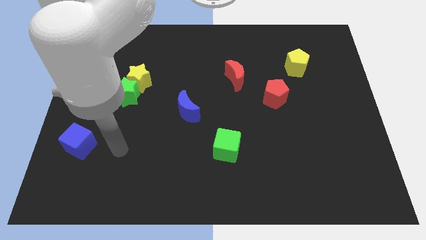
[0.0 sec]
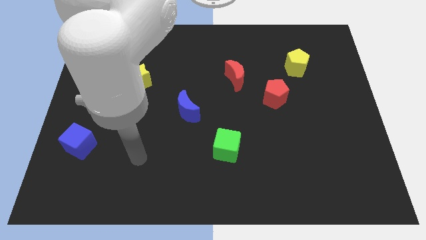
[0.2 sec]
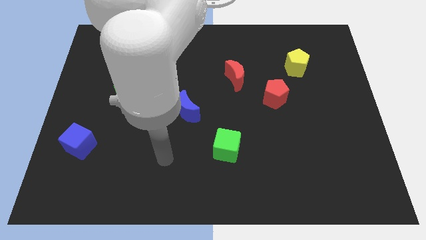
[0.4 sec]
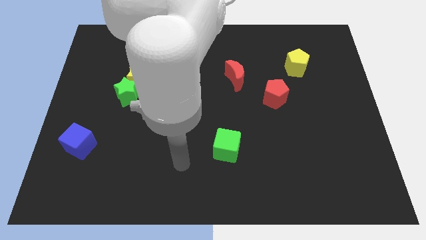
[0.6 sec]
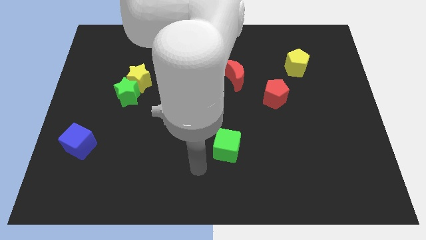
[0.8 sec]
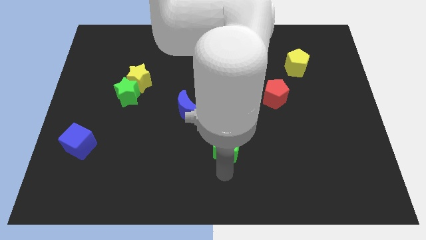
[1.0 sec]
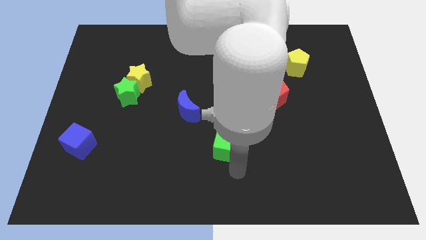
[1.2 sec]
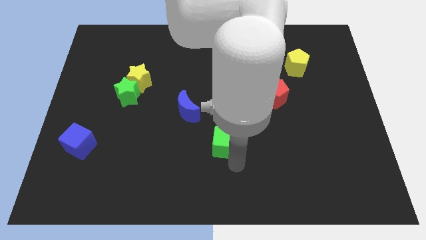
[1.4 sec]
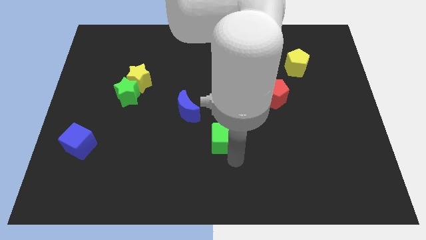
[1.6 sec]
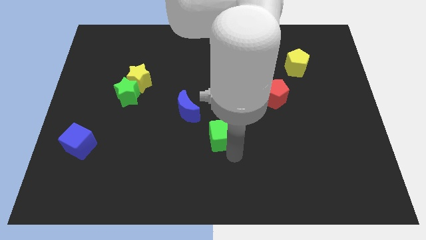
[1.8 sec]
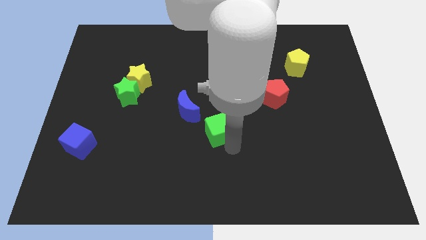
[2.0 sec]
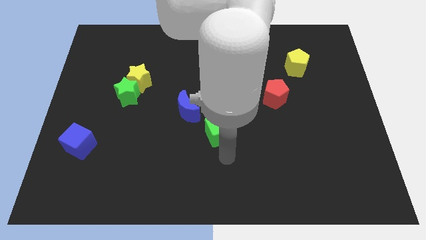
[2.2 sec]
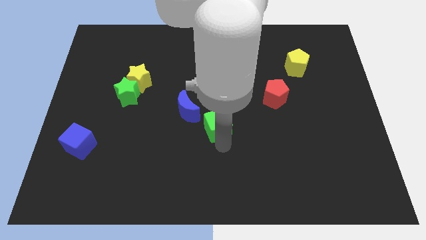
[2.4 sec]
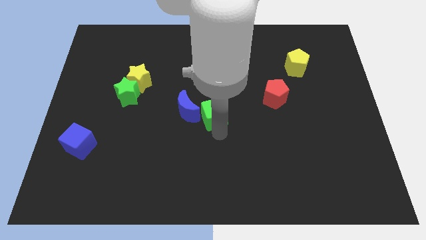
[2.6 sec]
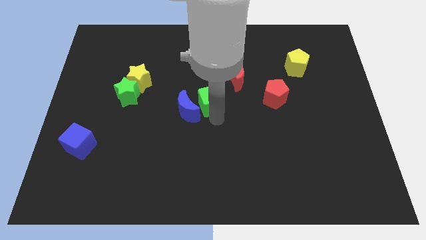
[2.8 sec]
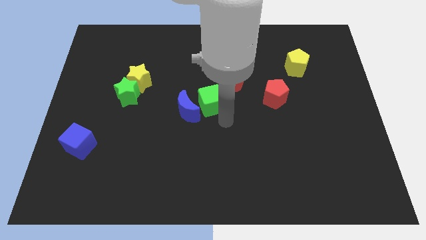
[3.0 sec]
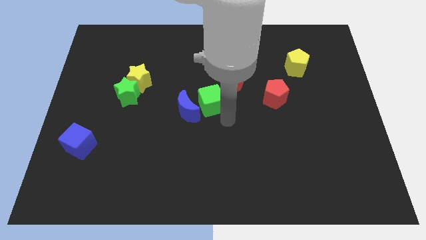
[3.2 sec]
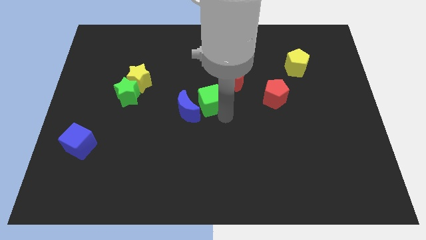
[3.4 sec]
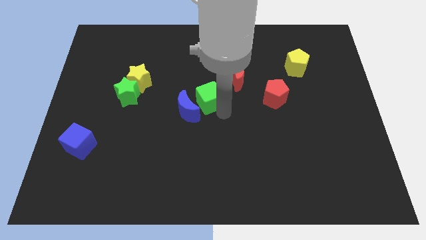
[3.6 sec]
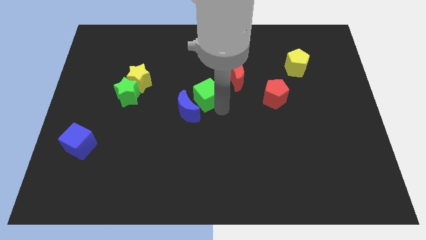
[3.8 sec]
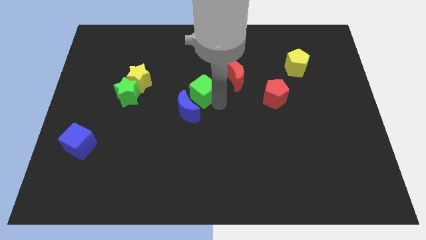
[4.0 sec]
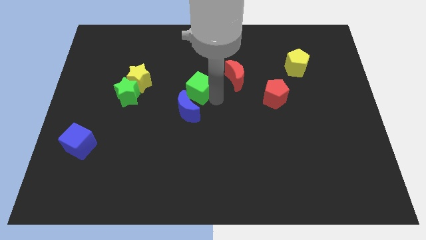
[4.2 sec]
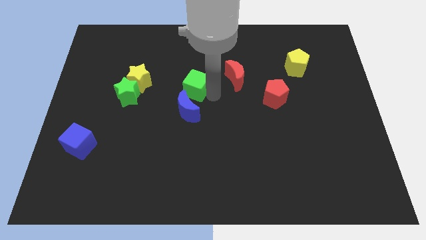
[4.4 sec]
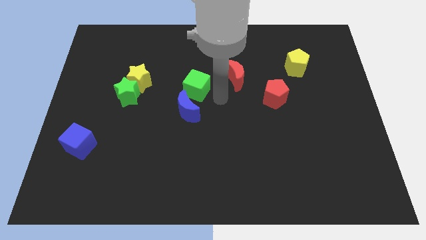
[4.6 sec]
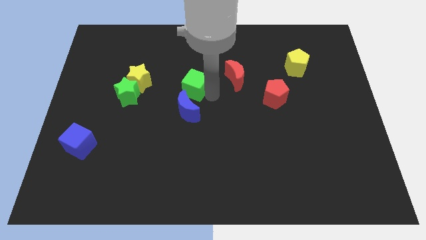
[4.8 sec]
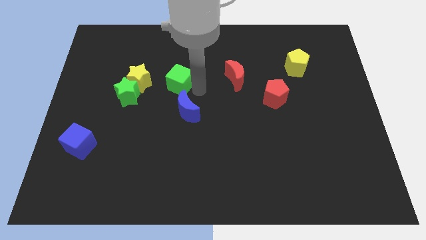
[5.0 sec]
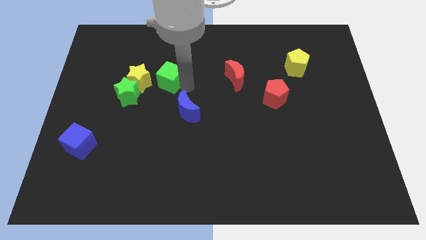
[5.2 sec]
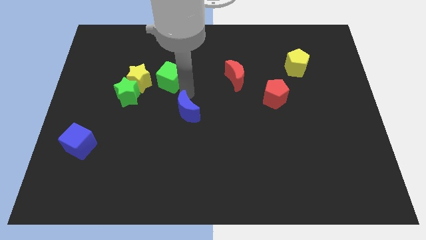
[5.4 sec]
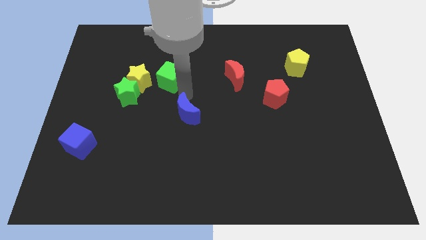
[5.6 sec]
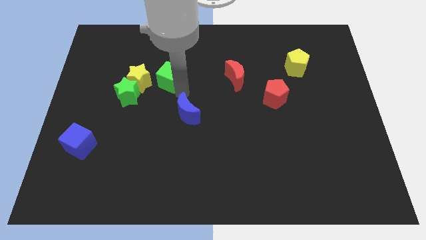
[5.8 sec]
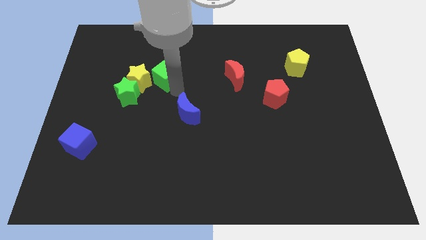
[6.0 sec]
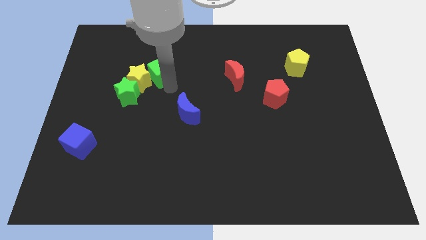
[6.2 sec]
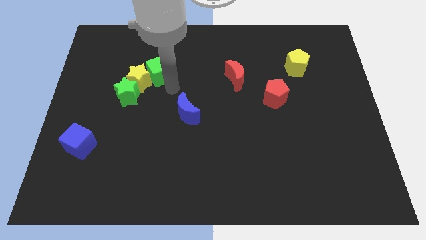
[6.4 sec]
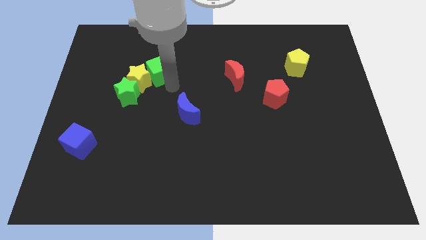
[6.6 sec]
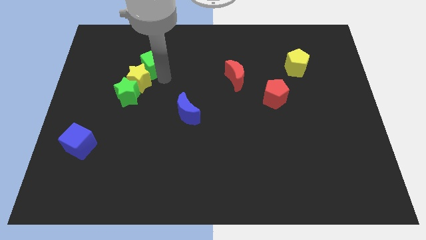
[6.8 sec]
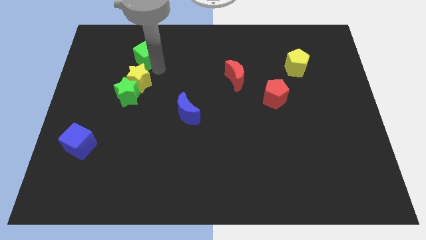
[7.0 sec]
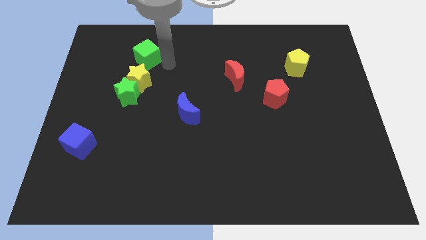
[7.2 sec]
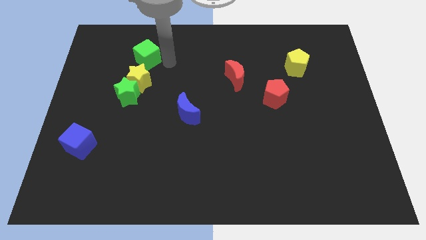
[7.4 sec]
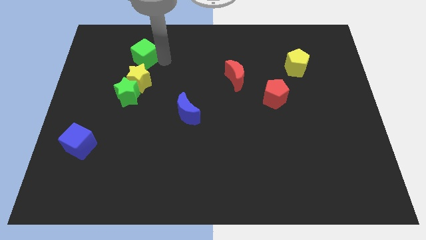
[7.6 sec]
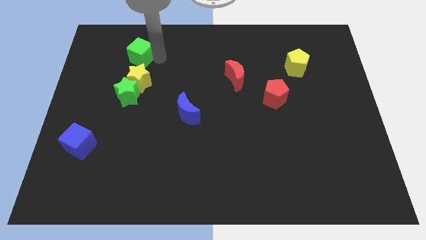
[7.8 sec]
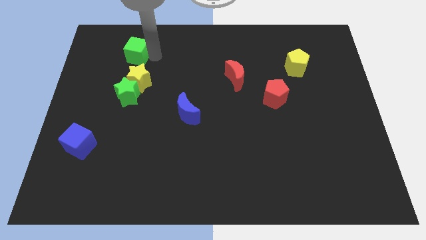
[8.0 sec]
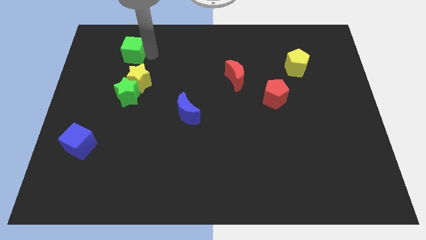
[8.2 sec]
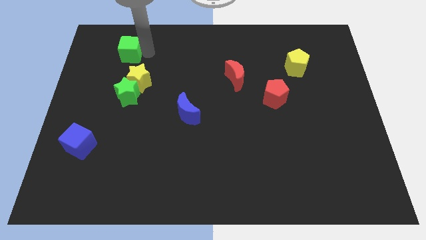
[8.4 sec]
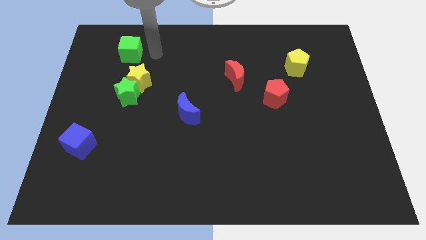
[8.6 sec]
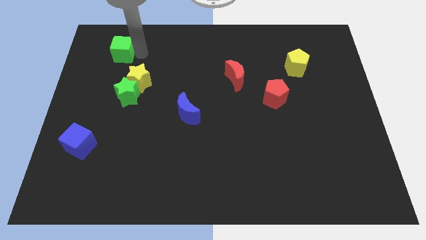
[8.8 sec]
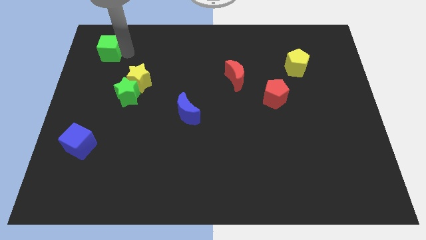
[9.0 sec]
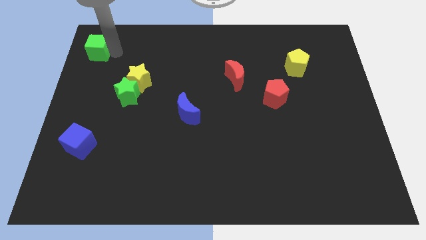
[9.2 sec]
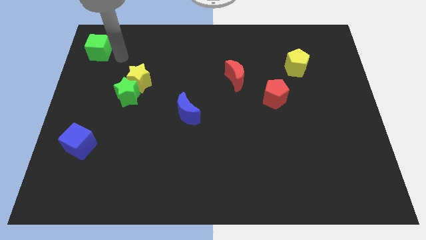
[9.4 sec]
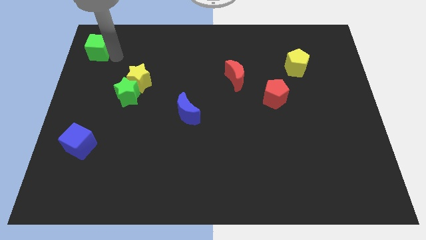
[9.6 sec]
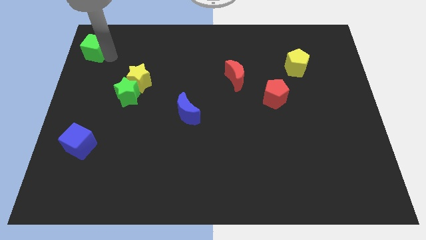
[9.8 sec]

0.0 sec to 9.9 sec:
push the green cube to the top left corner

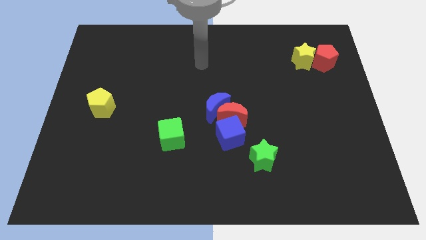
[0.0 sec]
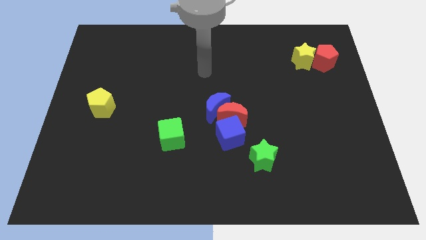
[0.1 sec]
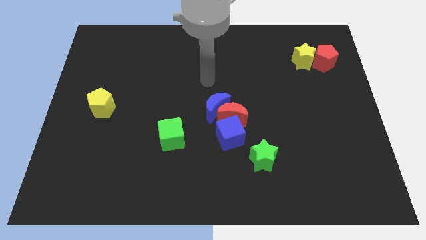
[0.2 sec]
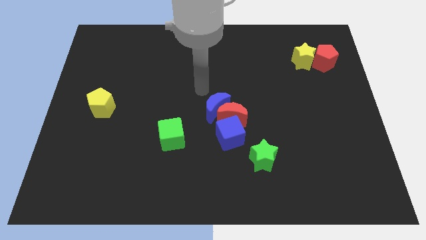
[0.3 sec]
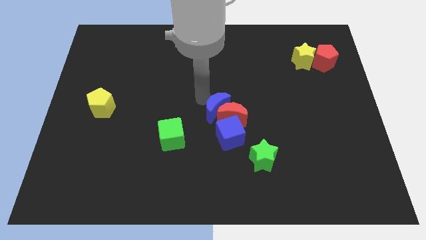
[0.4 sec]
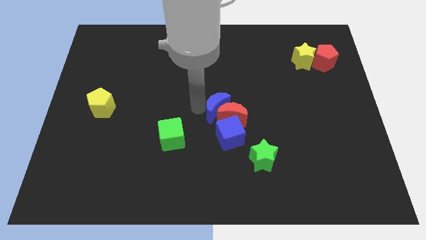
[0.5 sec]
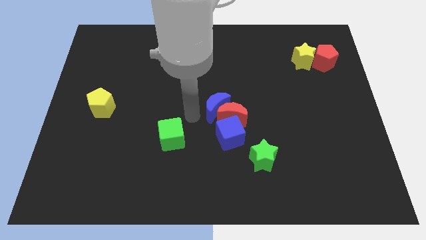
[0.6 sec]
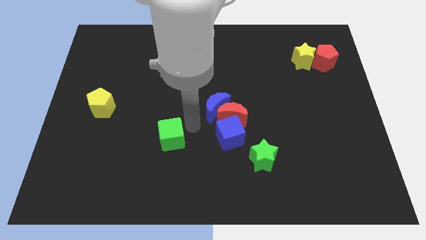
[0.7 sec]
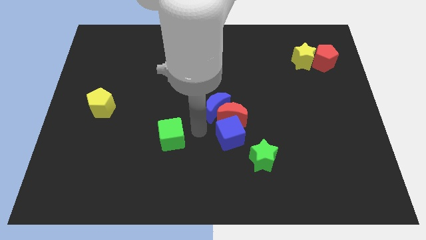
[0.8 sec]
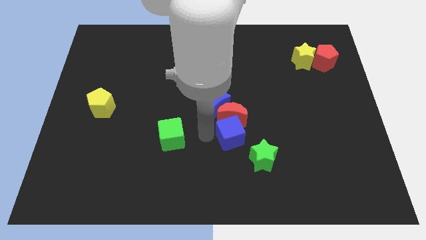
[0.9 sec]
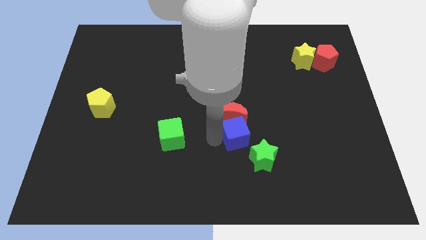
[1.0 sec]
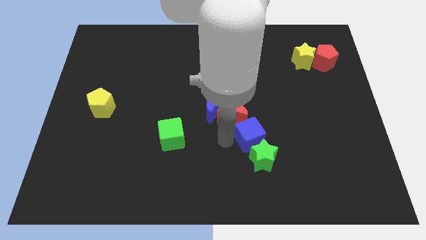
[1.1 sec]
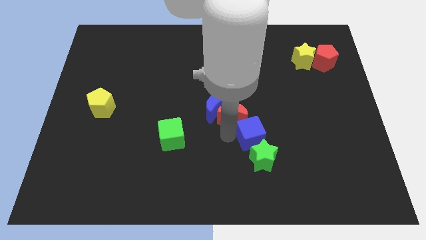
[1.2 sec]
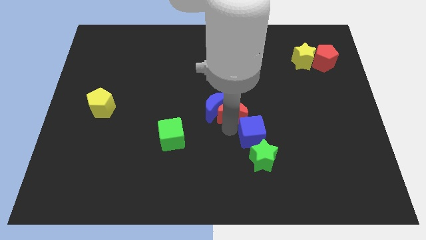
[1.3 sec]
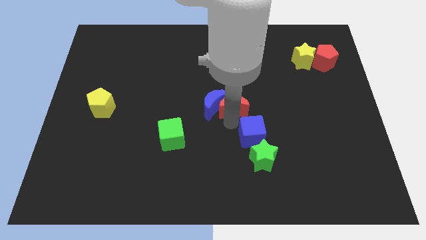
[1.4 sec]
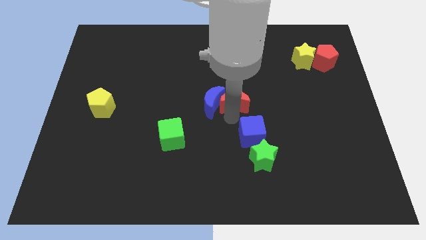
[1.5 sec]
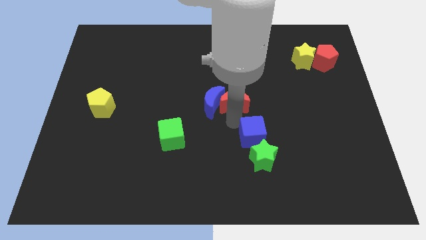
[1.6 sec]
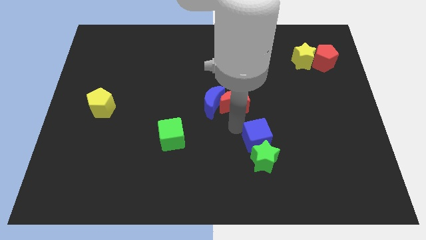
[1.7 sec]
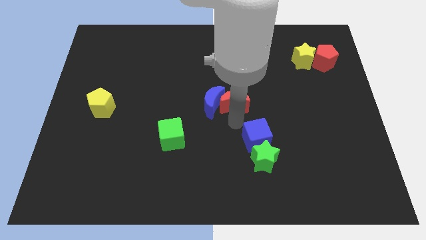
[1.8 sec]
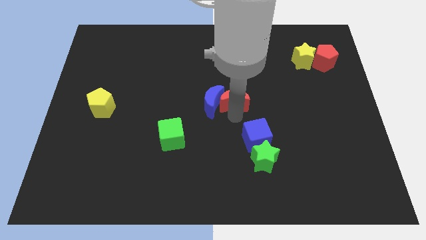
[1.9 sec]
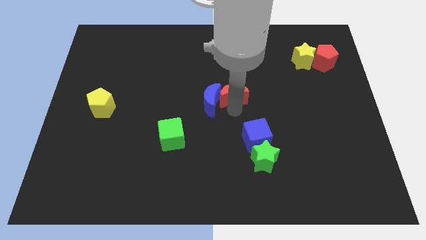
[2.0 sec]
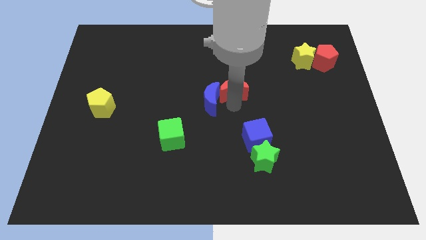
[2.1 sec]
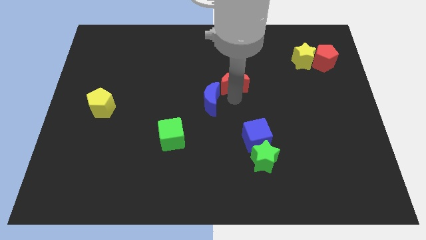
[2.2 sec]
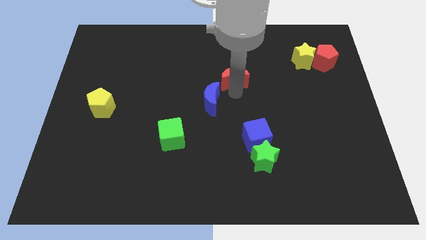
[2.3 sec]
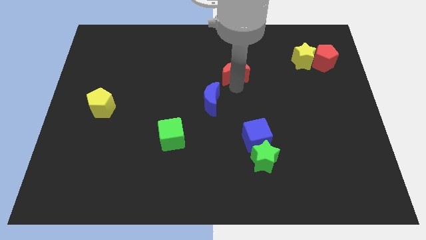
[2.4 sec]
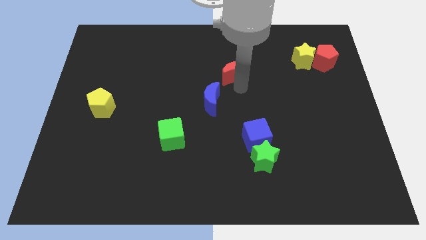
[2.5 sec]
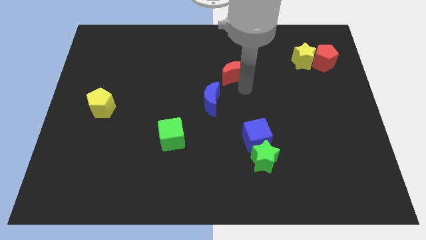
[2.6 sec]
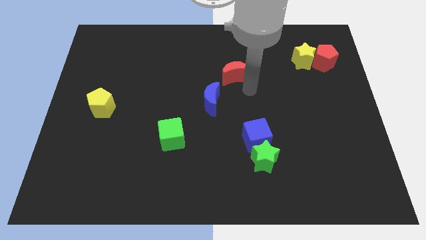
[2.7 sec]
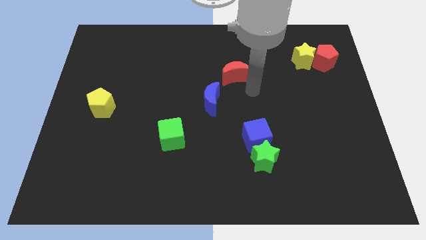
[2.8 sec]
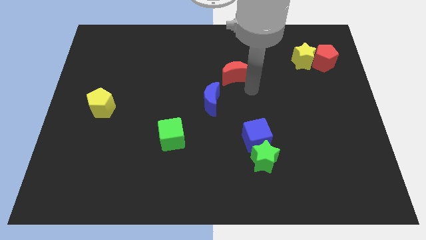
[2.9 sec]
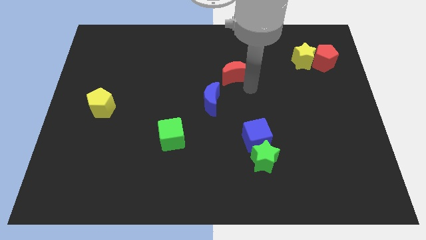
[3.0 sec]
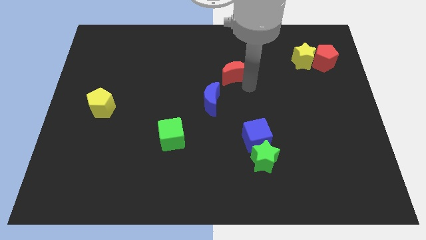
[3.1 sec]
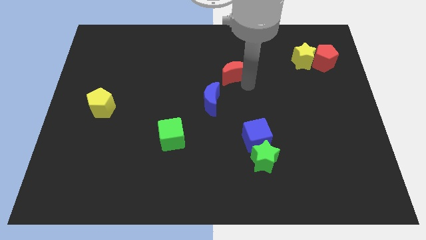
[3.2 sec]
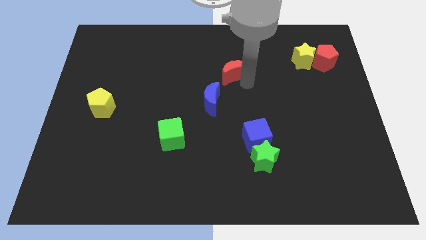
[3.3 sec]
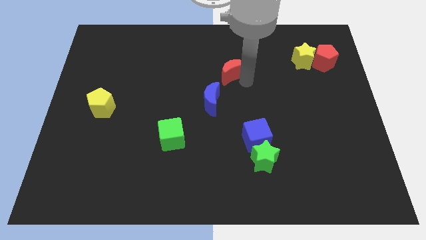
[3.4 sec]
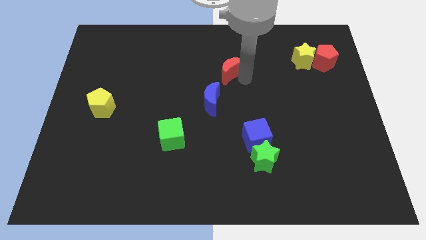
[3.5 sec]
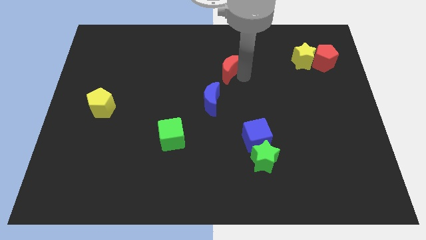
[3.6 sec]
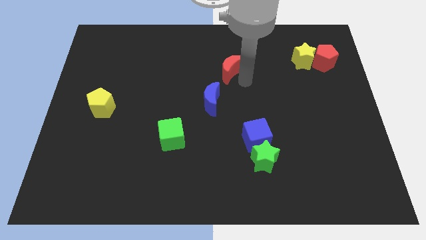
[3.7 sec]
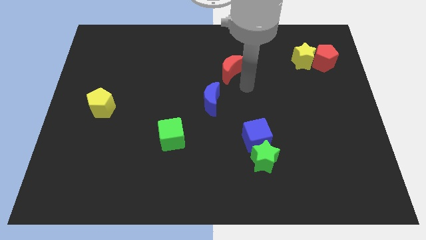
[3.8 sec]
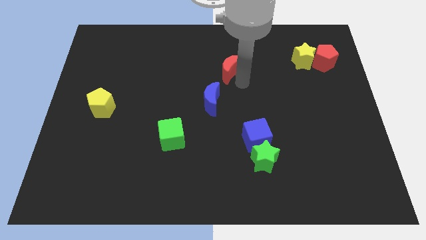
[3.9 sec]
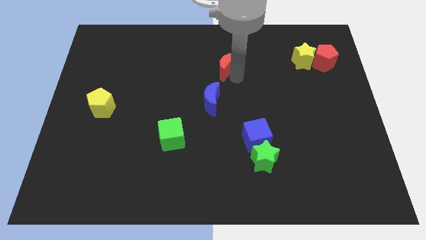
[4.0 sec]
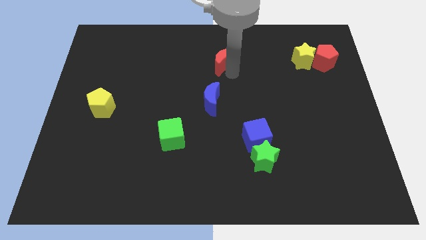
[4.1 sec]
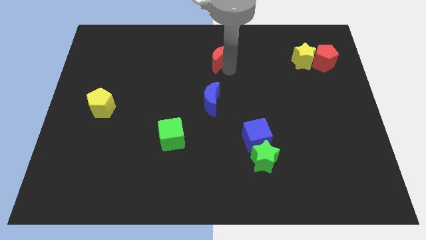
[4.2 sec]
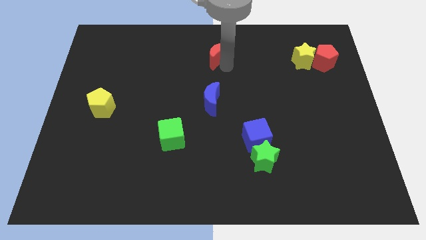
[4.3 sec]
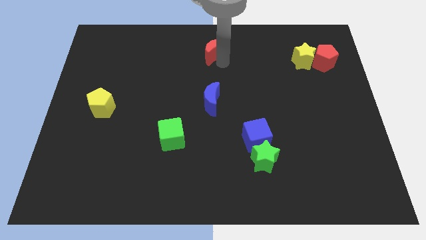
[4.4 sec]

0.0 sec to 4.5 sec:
put the red moon to the top side
